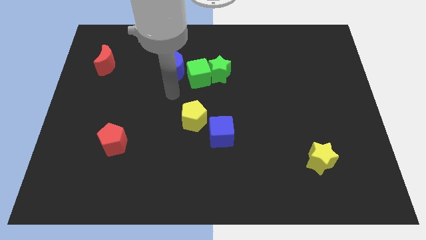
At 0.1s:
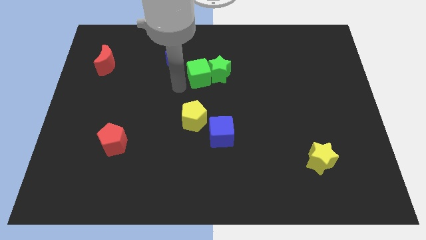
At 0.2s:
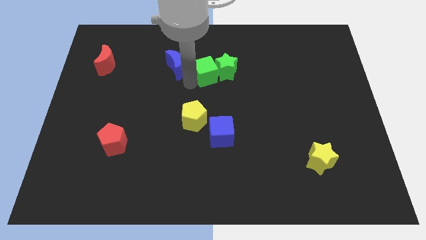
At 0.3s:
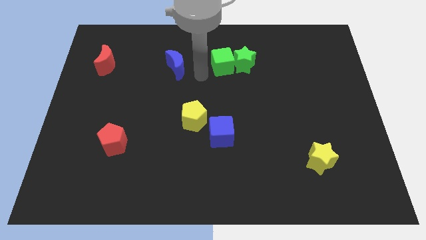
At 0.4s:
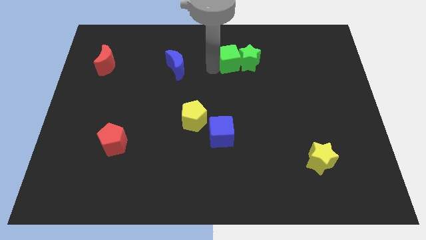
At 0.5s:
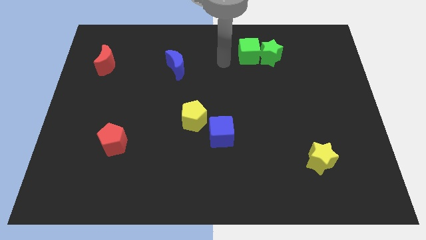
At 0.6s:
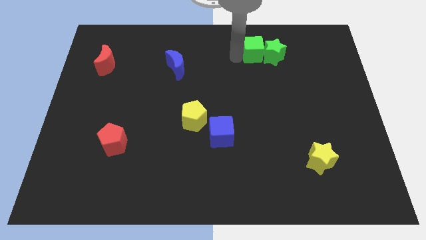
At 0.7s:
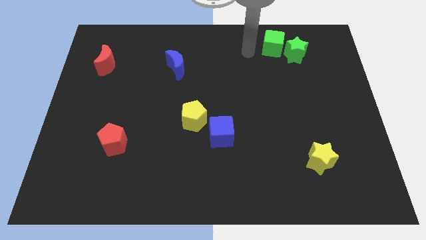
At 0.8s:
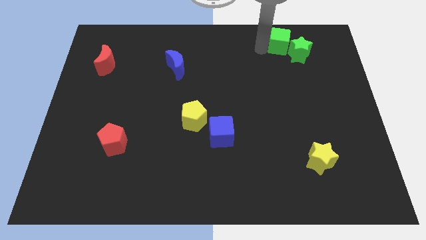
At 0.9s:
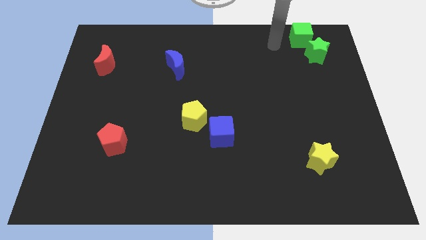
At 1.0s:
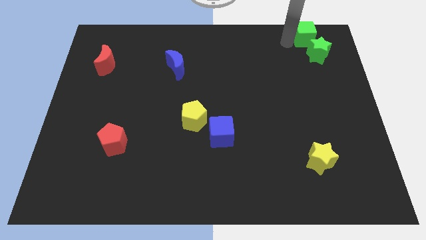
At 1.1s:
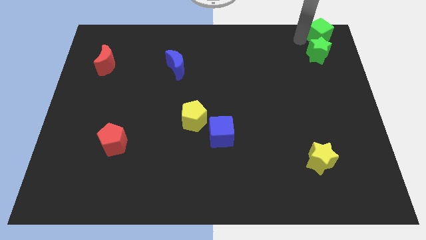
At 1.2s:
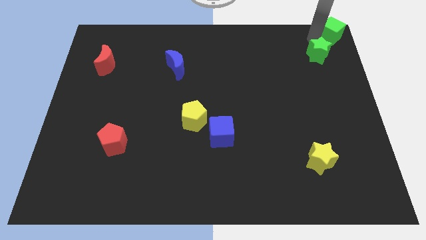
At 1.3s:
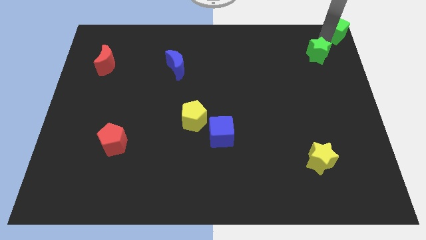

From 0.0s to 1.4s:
pull the green star apart from the green cube

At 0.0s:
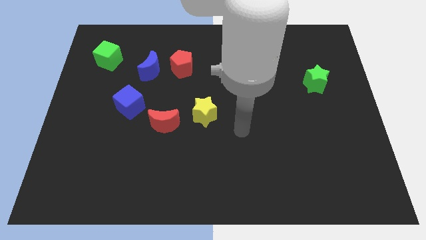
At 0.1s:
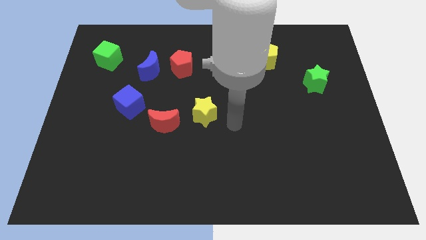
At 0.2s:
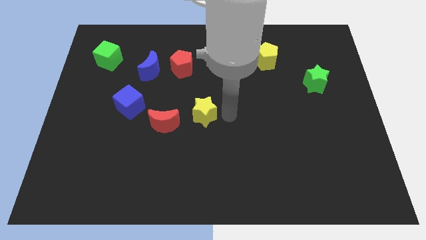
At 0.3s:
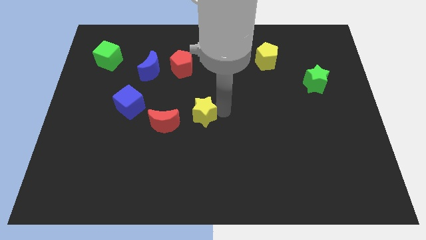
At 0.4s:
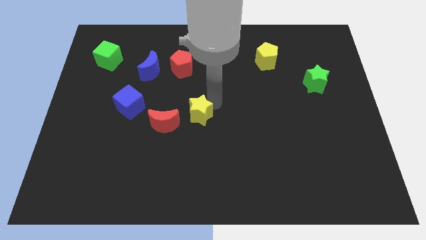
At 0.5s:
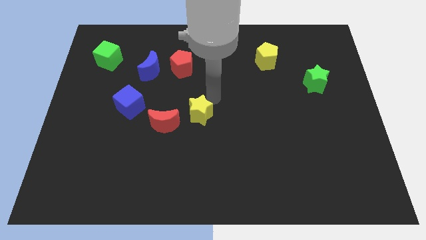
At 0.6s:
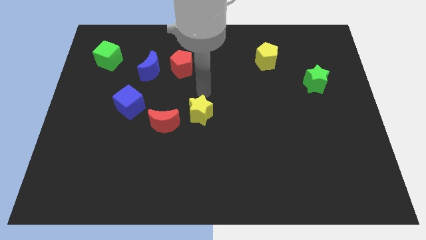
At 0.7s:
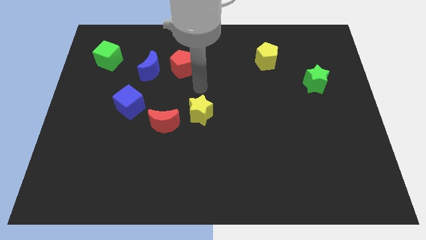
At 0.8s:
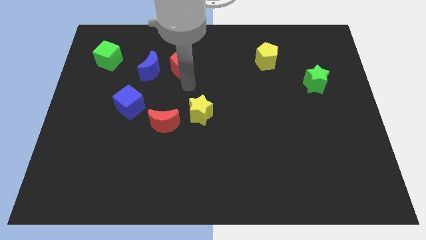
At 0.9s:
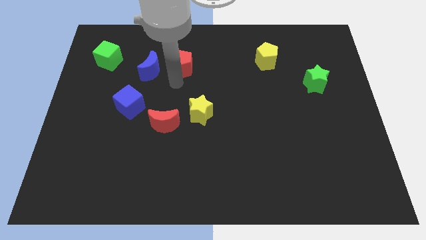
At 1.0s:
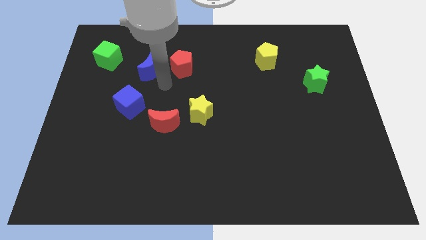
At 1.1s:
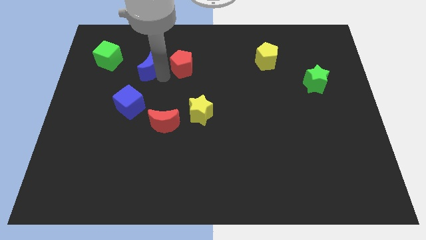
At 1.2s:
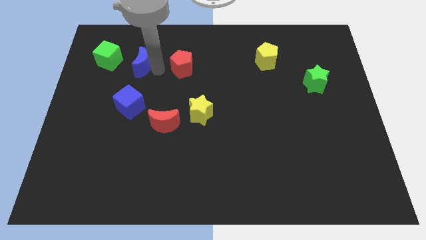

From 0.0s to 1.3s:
separate the red pentagon from the blue moon

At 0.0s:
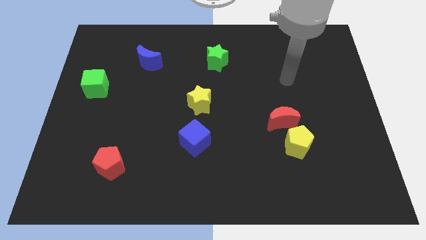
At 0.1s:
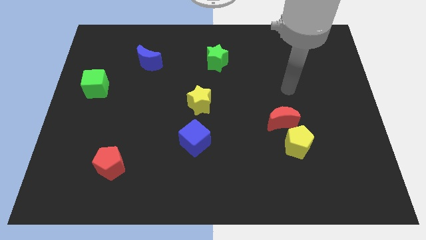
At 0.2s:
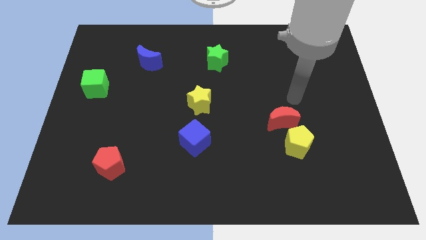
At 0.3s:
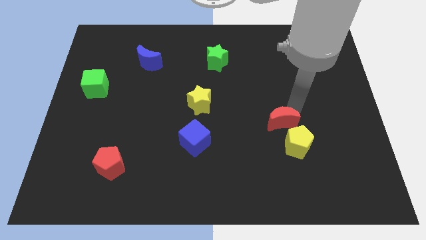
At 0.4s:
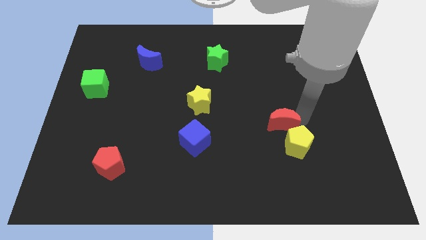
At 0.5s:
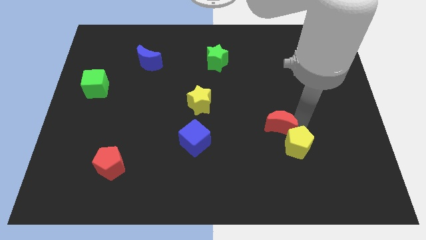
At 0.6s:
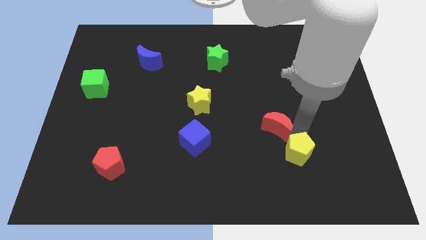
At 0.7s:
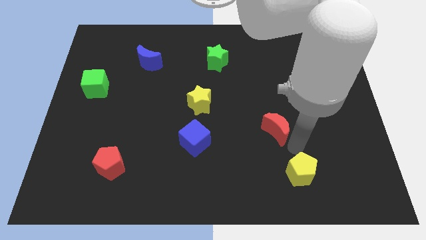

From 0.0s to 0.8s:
pull the red moon apart from the yellow pentagon

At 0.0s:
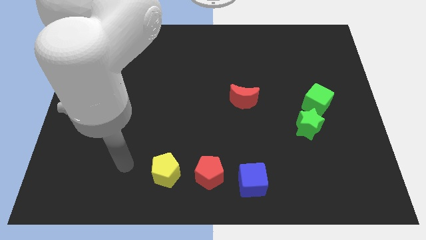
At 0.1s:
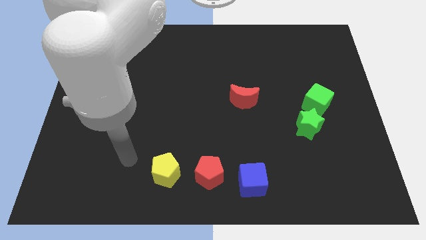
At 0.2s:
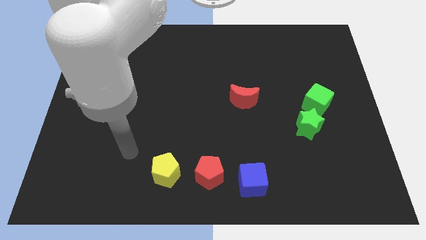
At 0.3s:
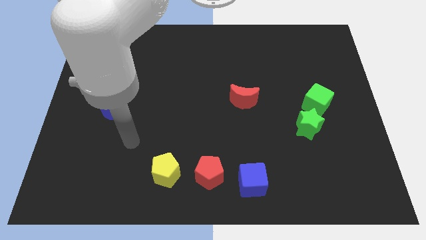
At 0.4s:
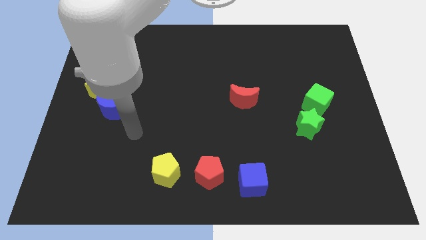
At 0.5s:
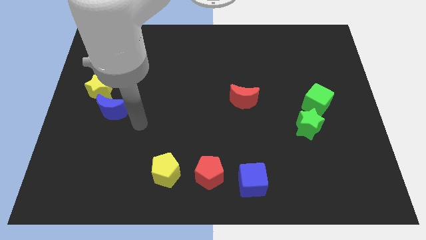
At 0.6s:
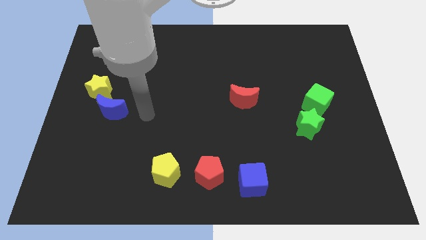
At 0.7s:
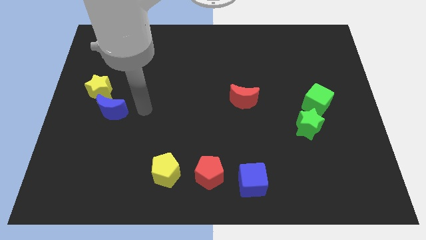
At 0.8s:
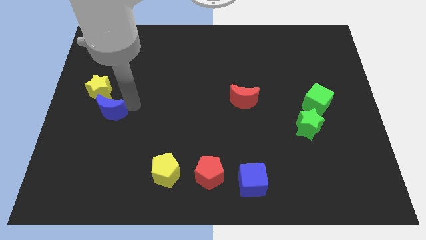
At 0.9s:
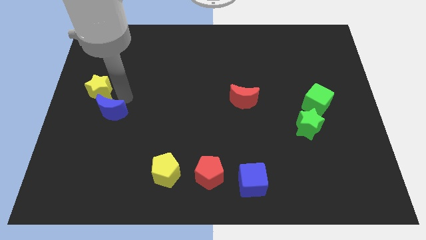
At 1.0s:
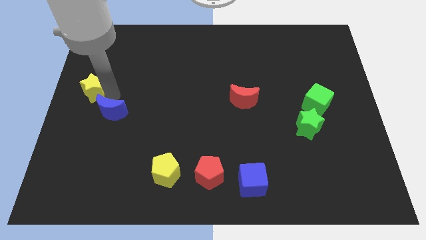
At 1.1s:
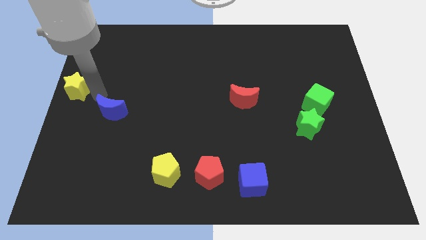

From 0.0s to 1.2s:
separate the blue moon from the yellow star

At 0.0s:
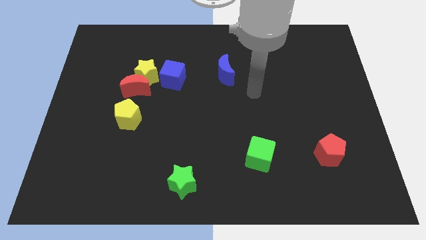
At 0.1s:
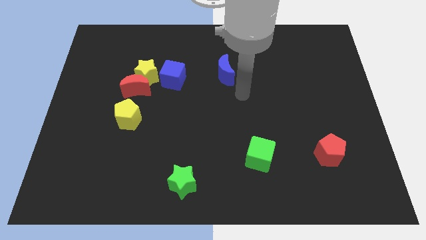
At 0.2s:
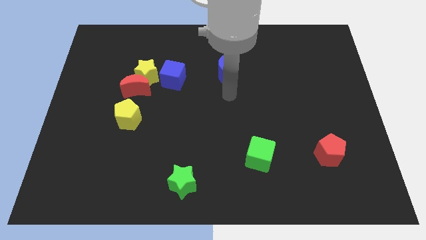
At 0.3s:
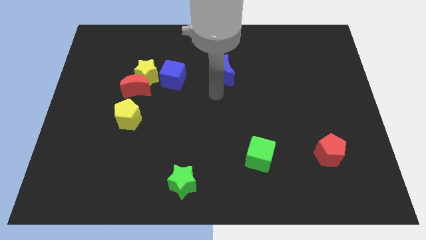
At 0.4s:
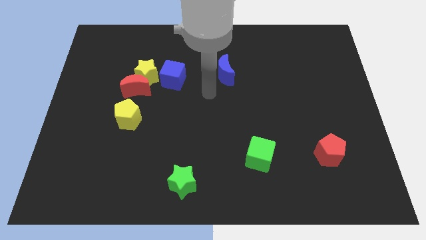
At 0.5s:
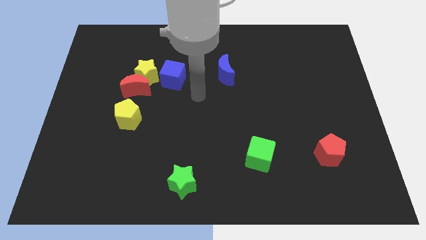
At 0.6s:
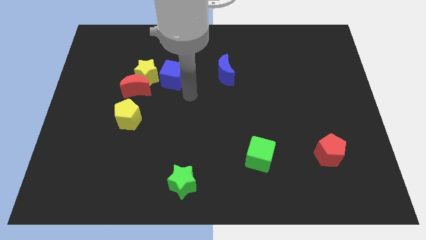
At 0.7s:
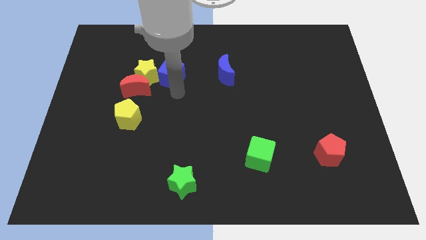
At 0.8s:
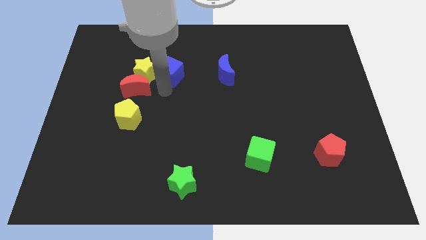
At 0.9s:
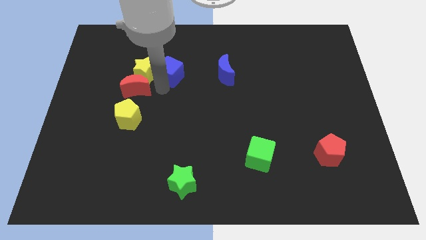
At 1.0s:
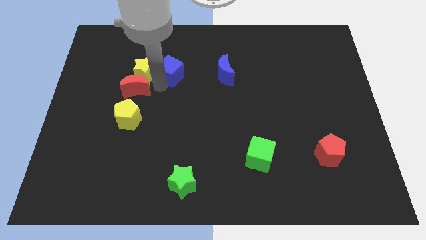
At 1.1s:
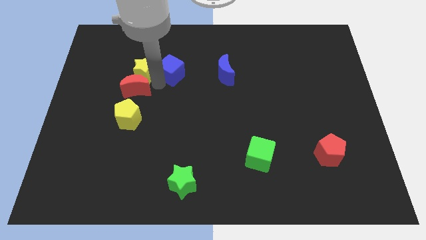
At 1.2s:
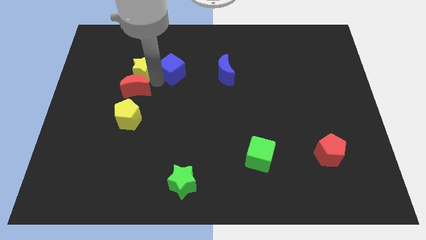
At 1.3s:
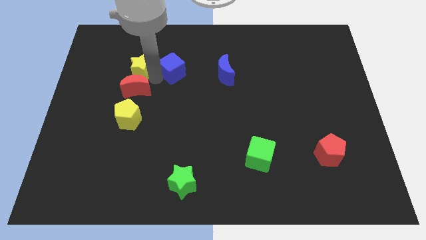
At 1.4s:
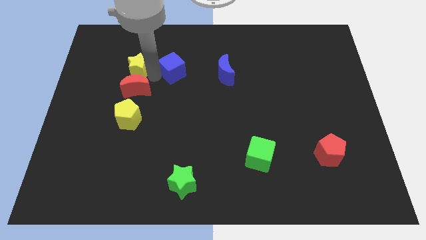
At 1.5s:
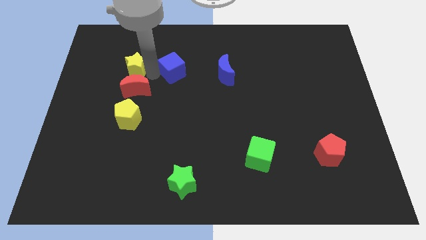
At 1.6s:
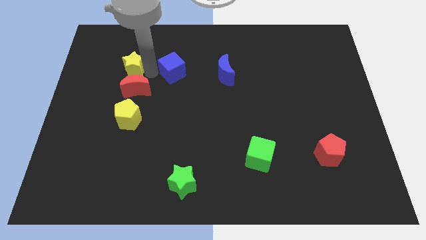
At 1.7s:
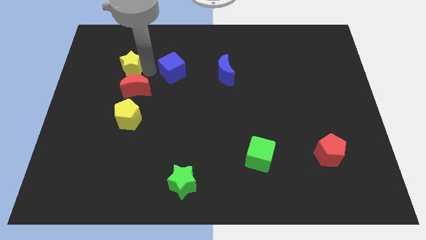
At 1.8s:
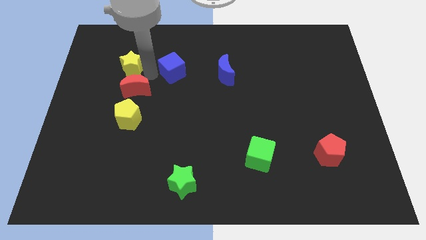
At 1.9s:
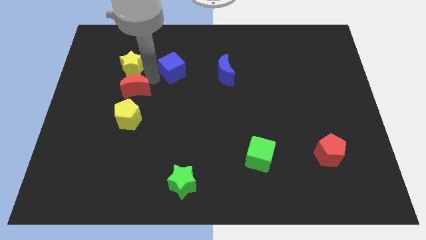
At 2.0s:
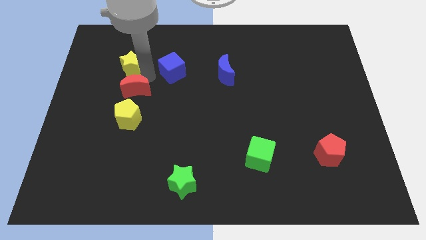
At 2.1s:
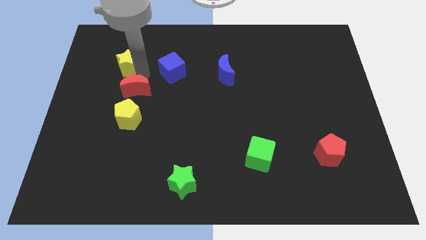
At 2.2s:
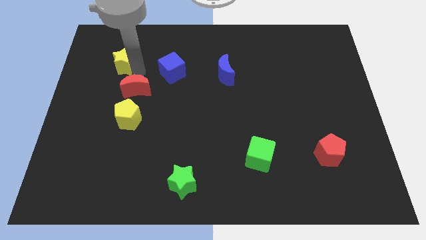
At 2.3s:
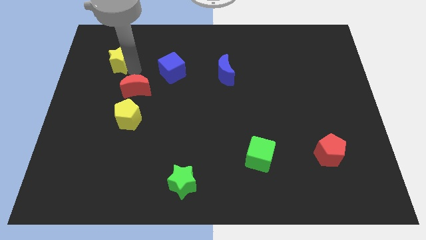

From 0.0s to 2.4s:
separate the yellow star from the red moon and blue cube

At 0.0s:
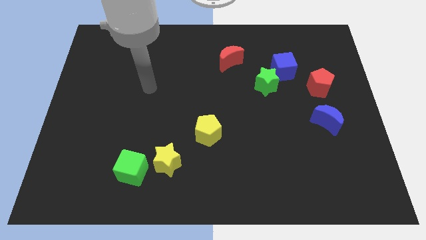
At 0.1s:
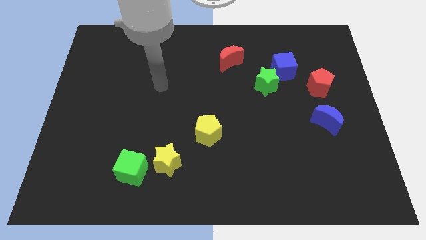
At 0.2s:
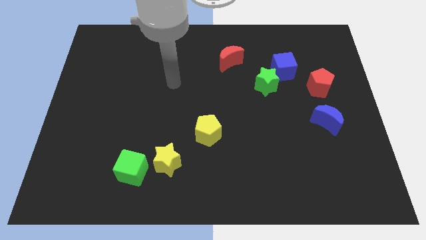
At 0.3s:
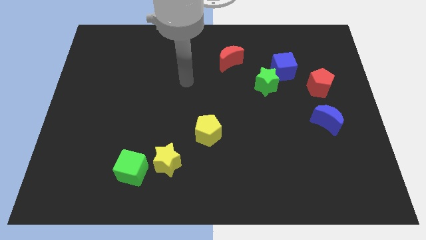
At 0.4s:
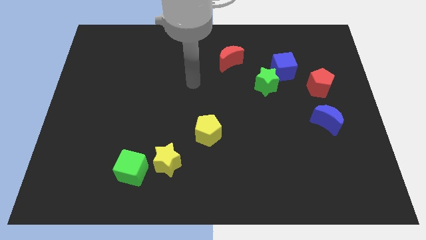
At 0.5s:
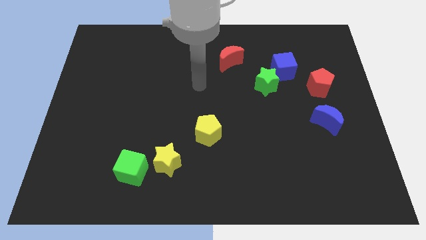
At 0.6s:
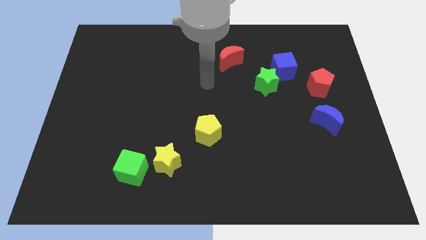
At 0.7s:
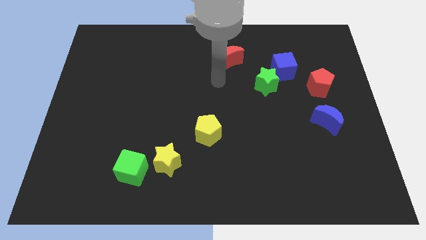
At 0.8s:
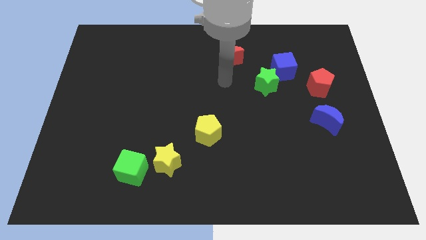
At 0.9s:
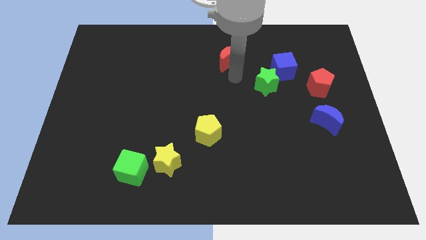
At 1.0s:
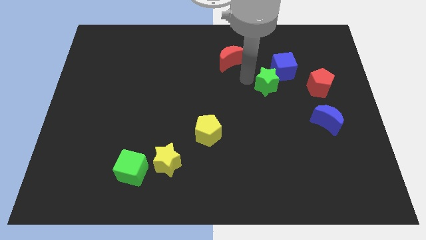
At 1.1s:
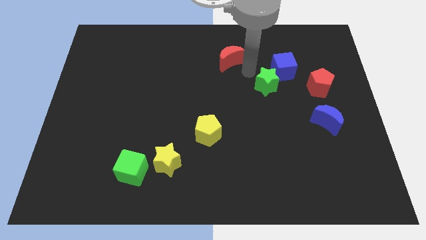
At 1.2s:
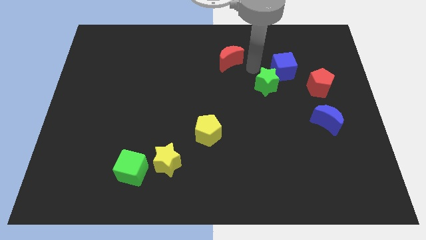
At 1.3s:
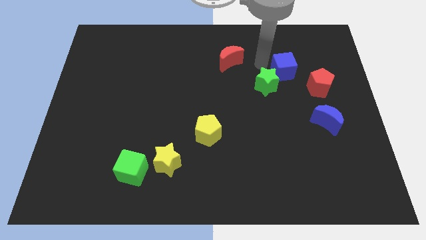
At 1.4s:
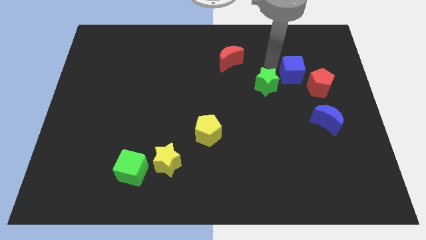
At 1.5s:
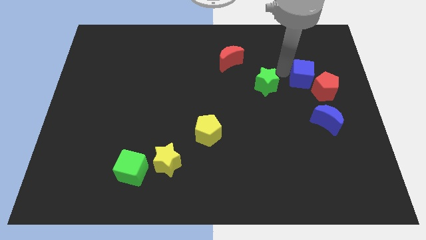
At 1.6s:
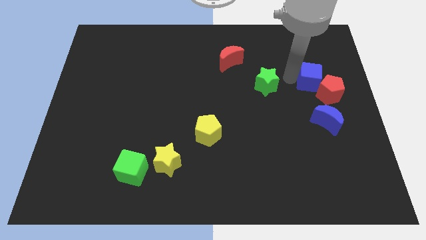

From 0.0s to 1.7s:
separate the green star from the blue cube

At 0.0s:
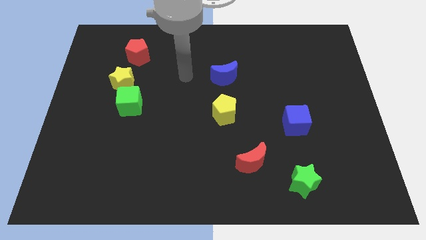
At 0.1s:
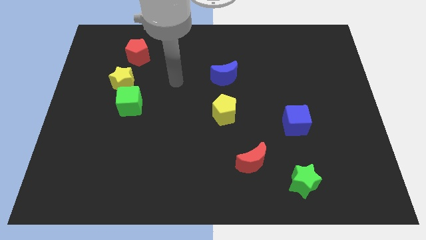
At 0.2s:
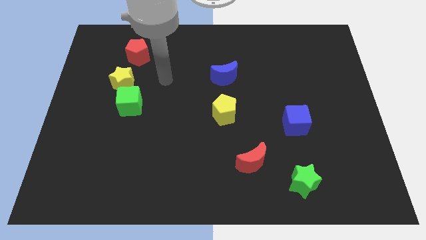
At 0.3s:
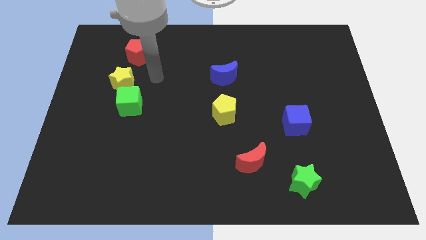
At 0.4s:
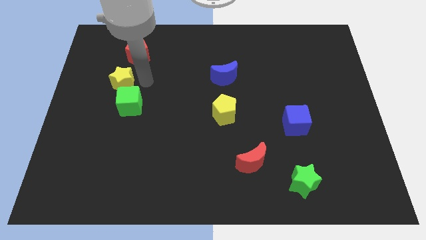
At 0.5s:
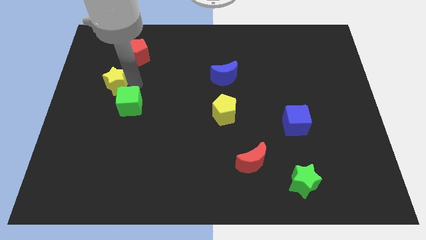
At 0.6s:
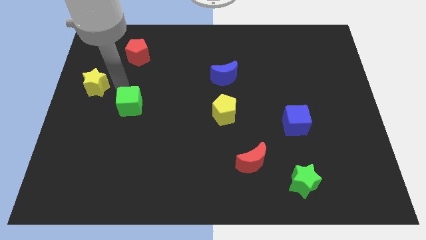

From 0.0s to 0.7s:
separate the green cube from the yellow star
